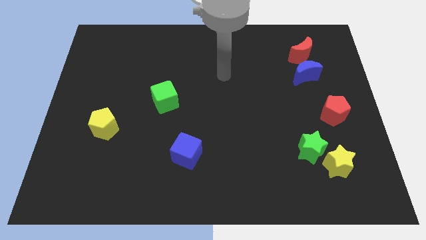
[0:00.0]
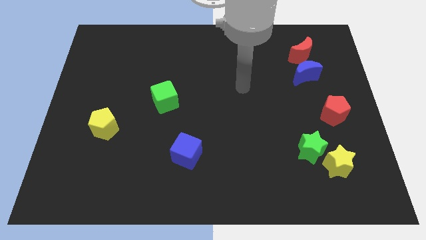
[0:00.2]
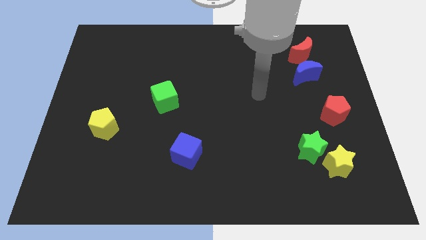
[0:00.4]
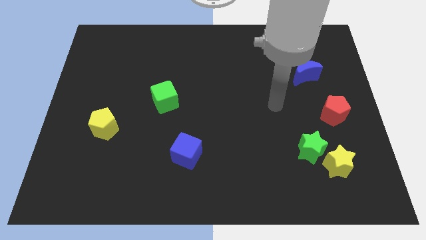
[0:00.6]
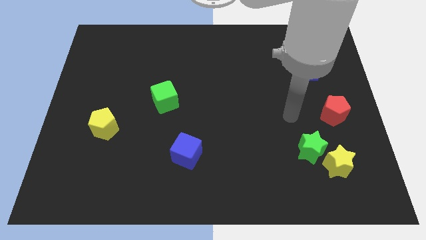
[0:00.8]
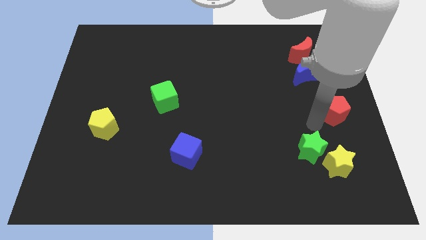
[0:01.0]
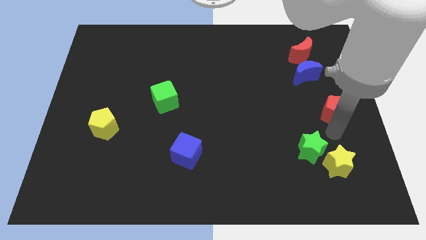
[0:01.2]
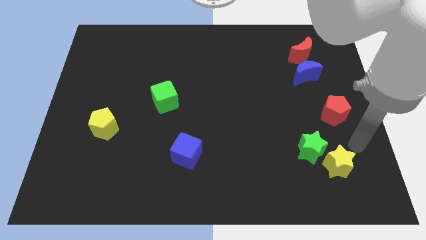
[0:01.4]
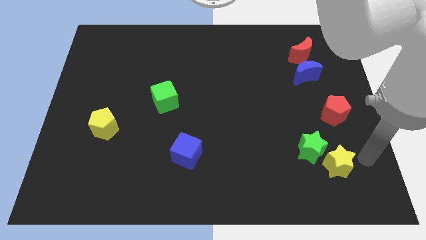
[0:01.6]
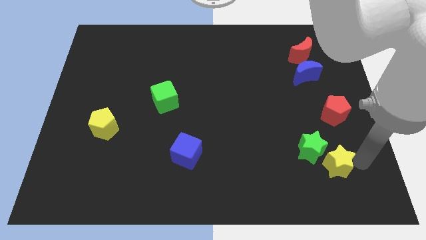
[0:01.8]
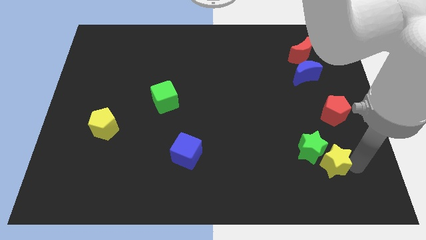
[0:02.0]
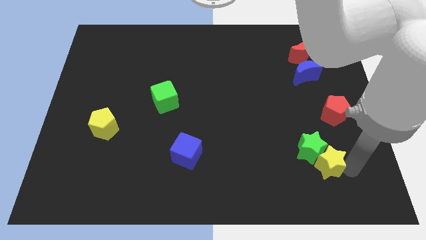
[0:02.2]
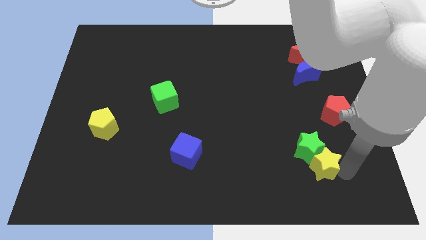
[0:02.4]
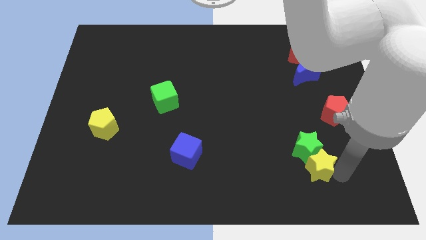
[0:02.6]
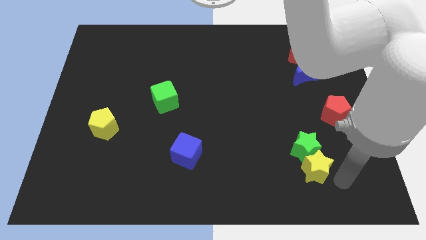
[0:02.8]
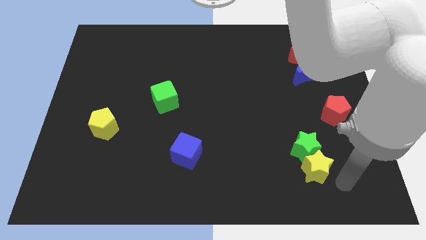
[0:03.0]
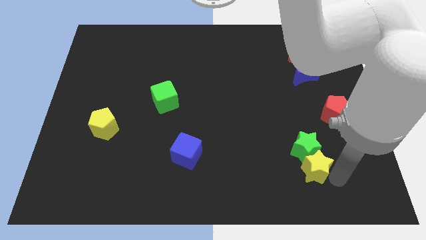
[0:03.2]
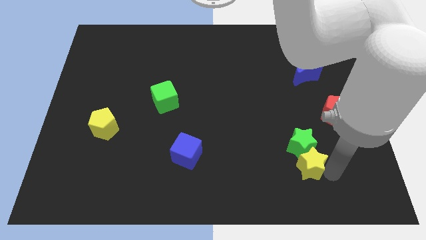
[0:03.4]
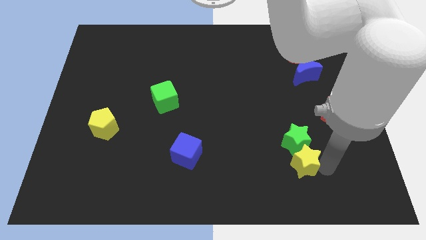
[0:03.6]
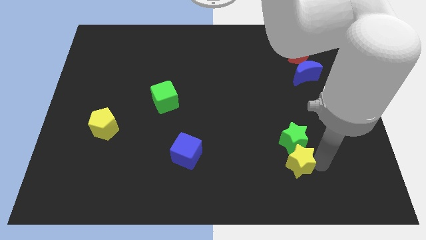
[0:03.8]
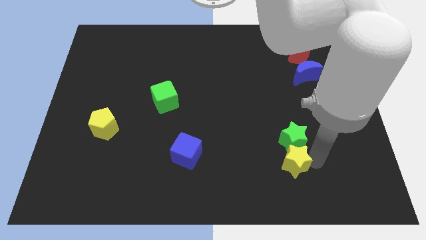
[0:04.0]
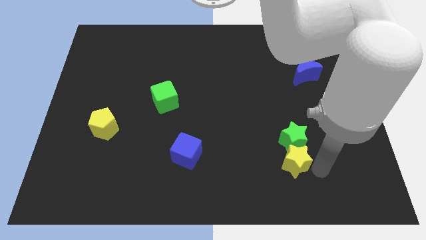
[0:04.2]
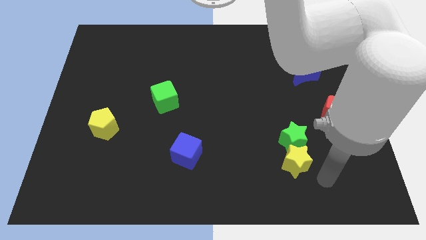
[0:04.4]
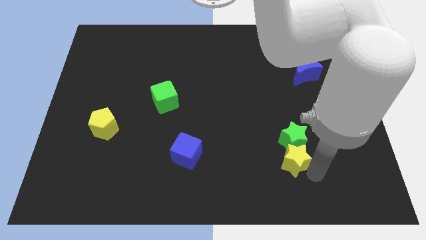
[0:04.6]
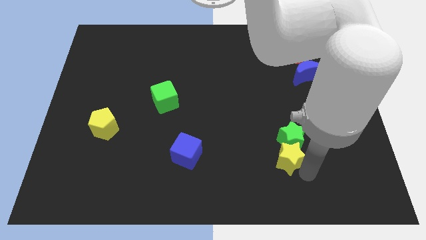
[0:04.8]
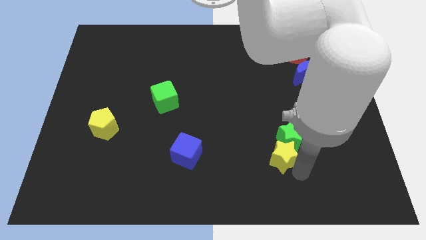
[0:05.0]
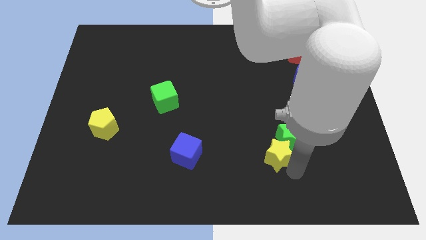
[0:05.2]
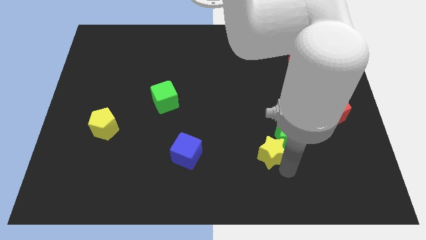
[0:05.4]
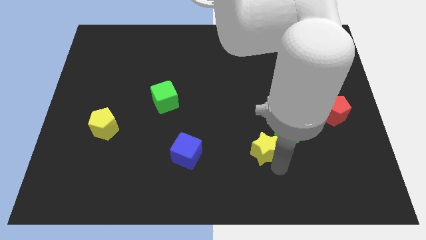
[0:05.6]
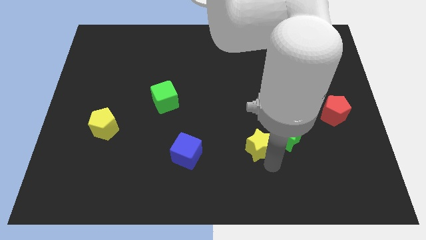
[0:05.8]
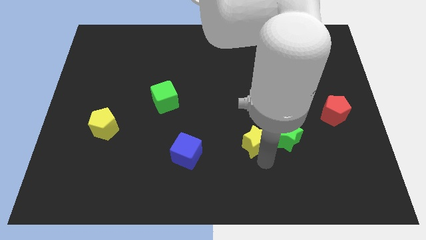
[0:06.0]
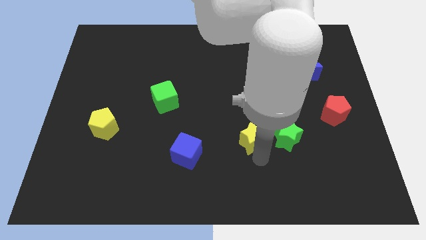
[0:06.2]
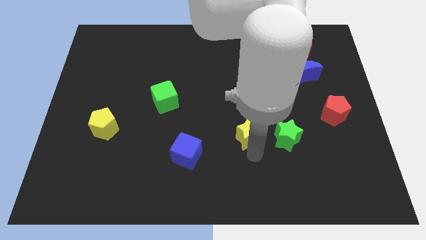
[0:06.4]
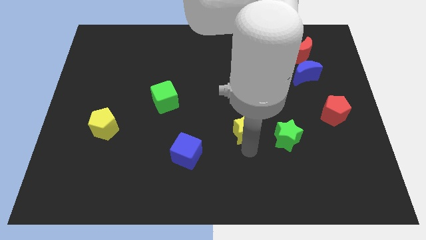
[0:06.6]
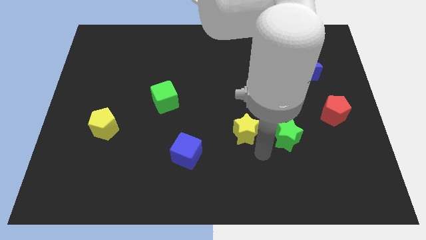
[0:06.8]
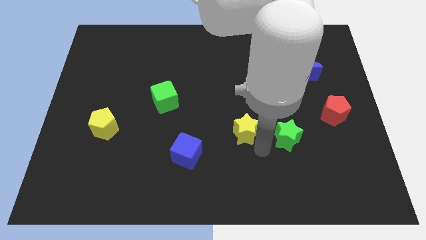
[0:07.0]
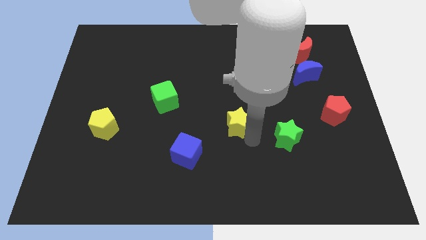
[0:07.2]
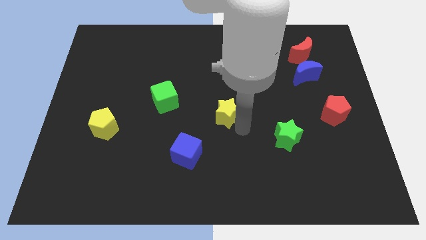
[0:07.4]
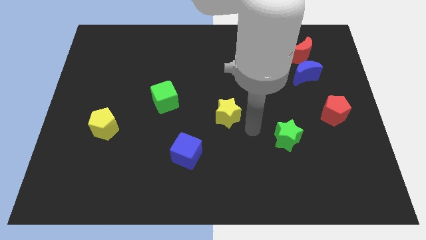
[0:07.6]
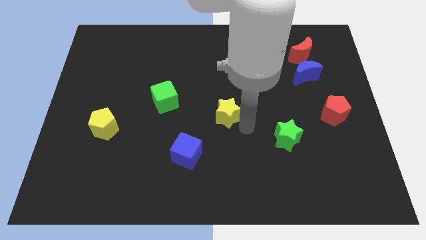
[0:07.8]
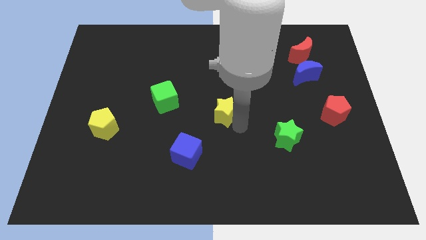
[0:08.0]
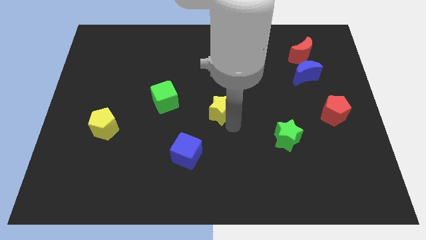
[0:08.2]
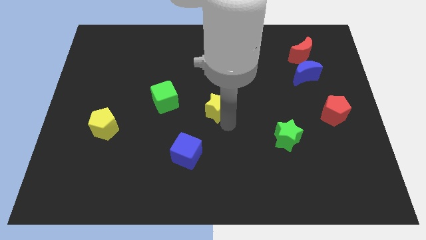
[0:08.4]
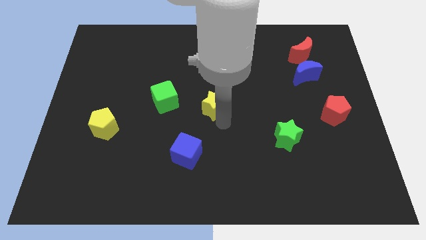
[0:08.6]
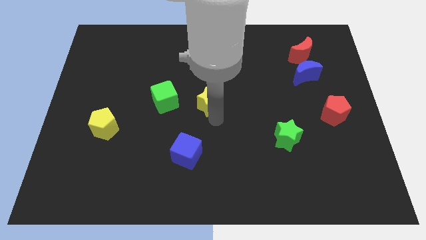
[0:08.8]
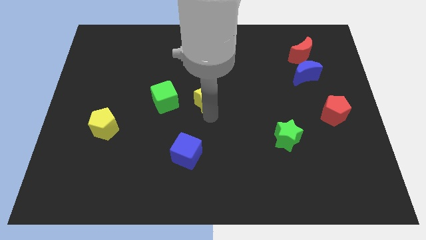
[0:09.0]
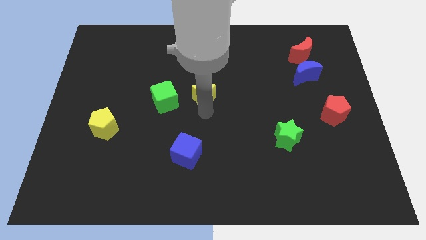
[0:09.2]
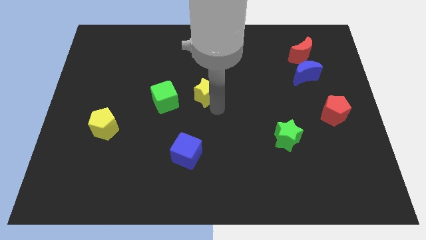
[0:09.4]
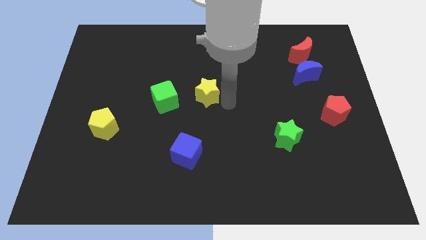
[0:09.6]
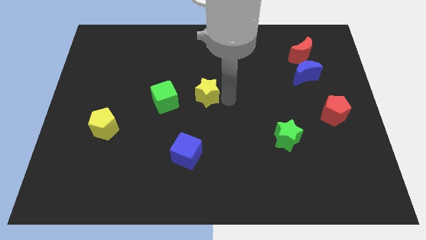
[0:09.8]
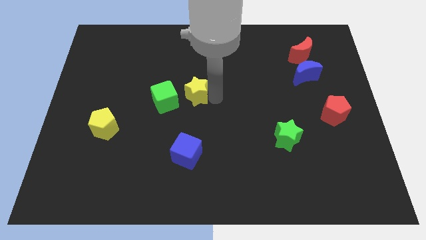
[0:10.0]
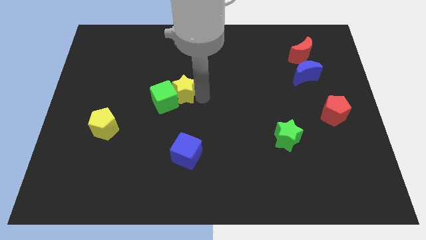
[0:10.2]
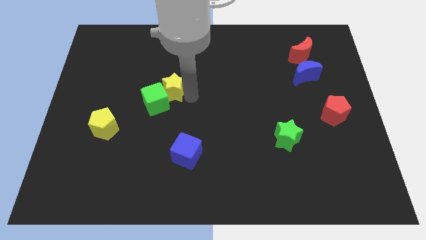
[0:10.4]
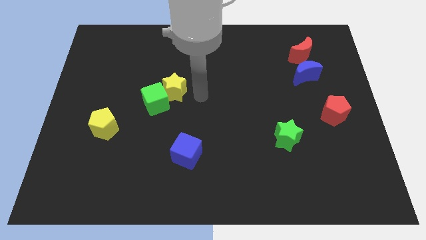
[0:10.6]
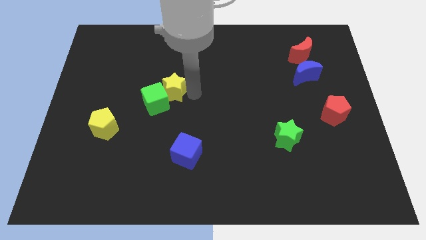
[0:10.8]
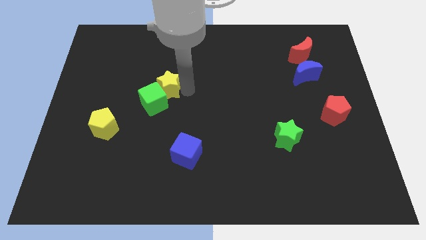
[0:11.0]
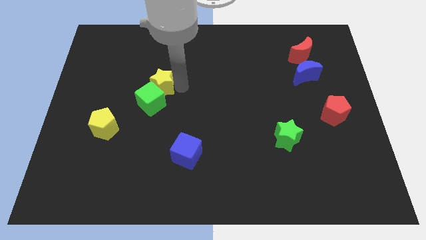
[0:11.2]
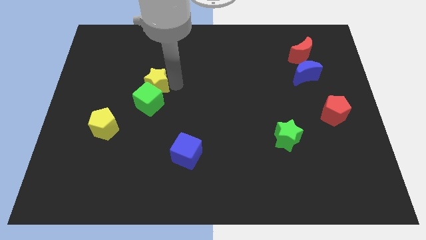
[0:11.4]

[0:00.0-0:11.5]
put the yellow star to the top left side of the green cube

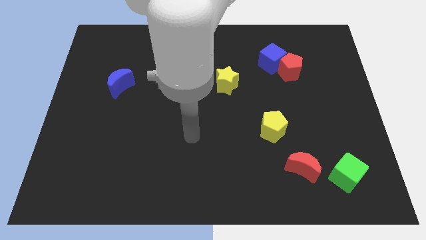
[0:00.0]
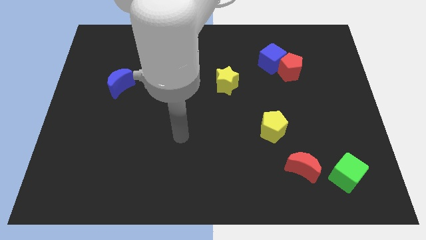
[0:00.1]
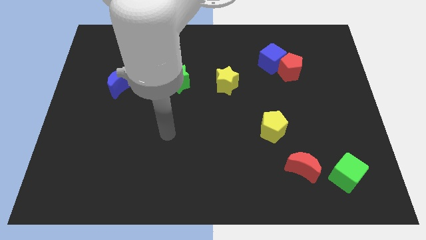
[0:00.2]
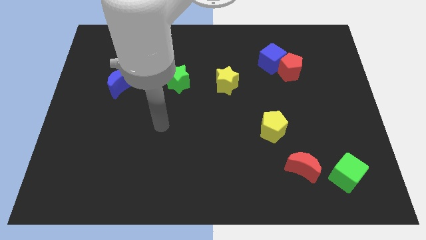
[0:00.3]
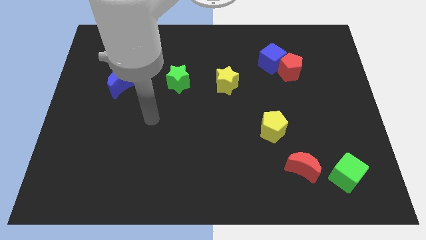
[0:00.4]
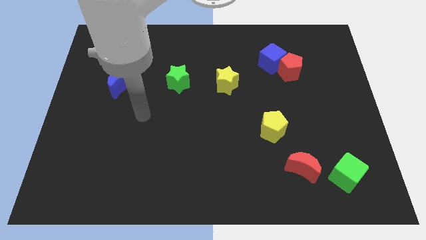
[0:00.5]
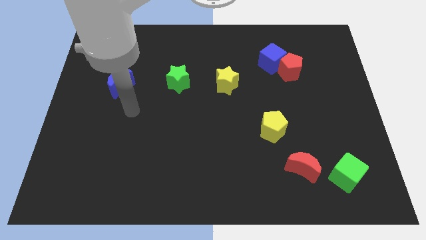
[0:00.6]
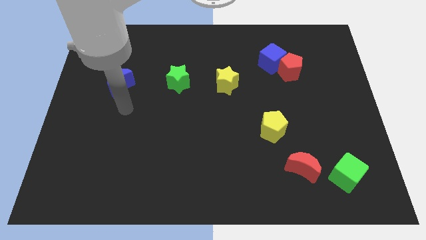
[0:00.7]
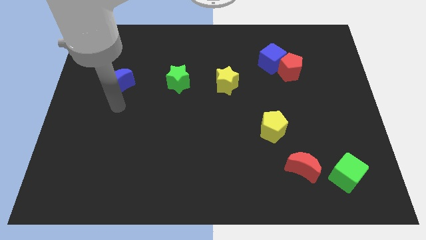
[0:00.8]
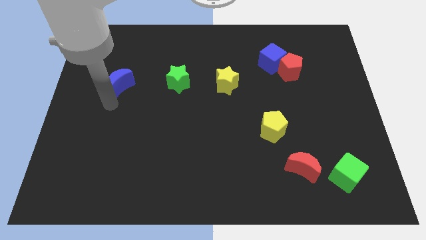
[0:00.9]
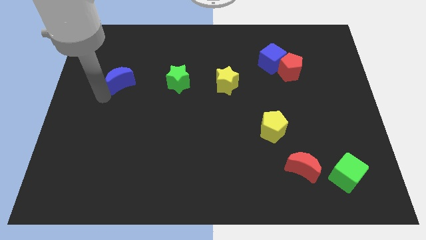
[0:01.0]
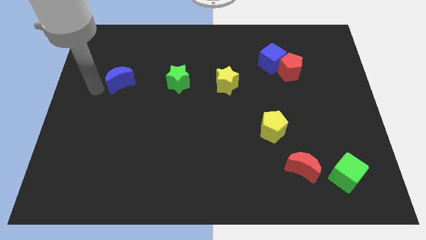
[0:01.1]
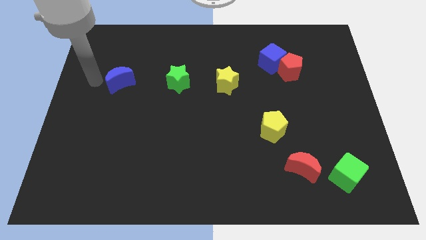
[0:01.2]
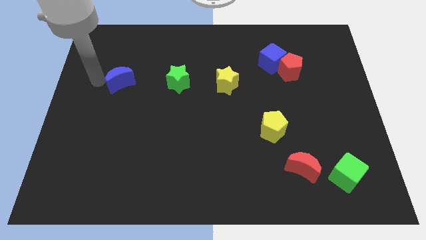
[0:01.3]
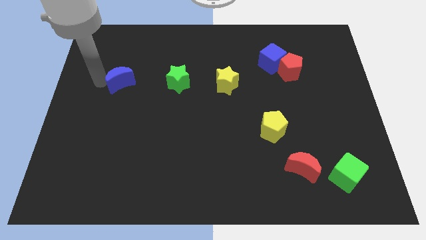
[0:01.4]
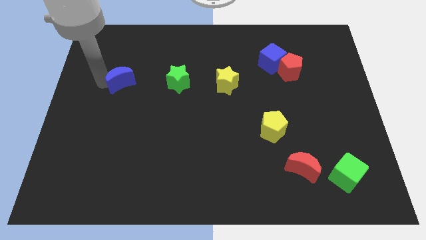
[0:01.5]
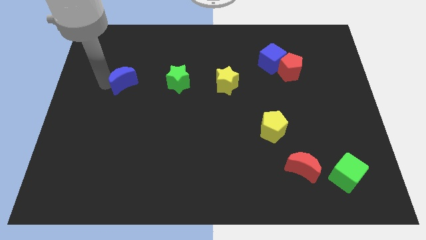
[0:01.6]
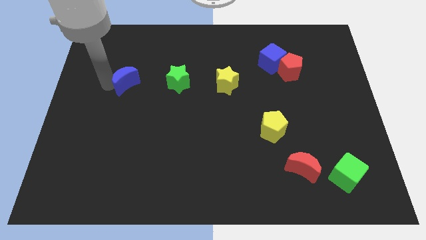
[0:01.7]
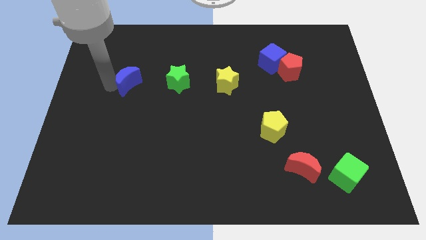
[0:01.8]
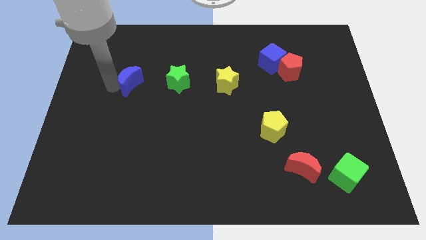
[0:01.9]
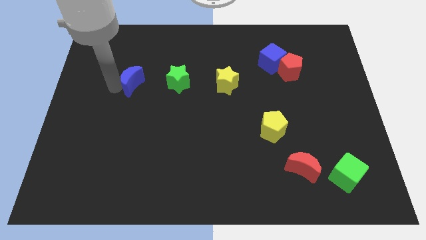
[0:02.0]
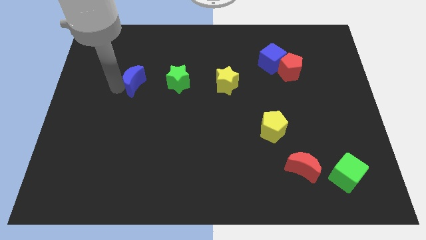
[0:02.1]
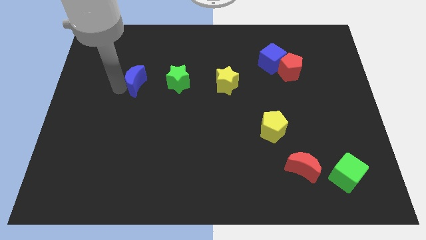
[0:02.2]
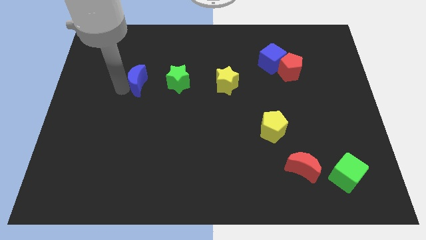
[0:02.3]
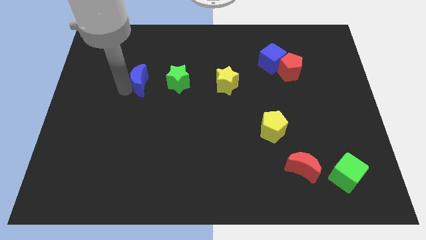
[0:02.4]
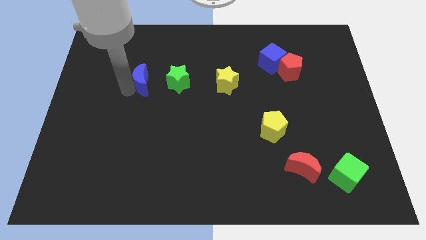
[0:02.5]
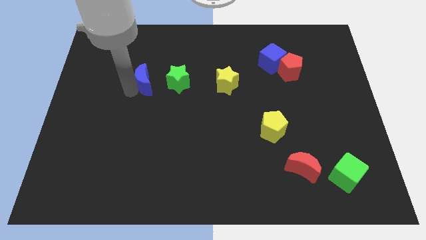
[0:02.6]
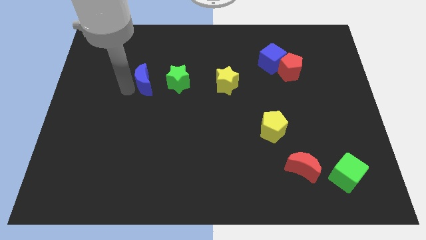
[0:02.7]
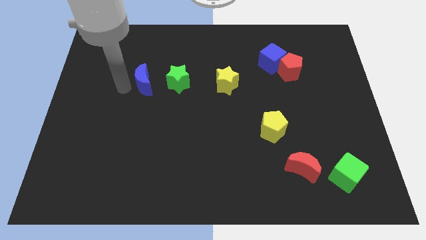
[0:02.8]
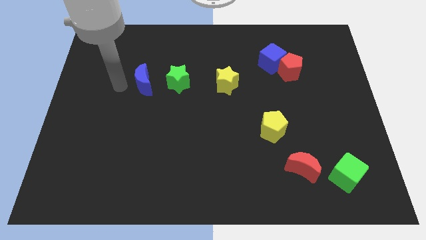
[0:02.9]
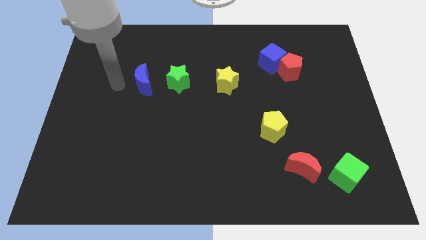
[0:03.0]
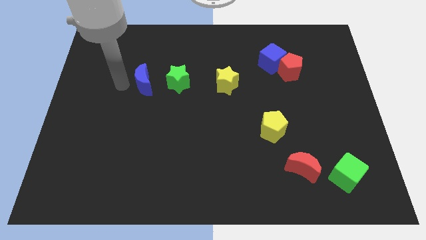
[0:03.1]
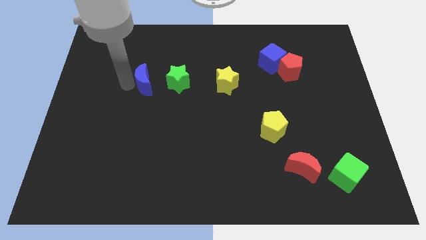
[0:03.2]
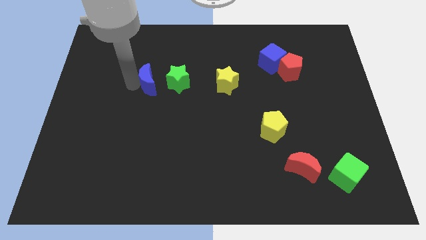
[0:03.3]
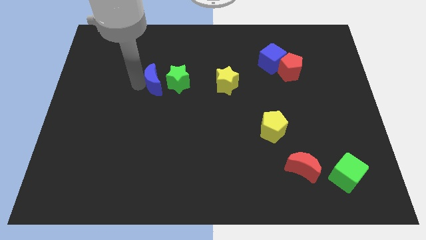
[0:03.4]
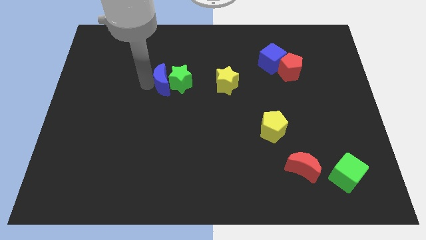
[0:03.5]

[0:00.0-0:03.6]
push the blue moon left of the yellow star
